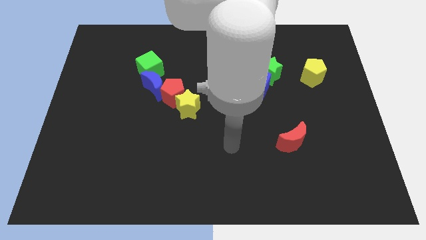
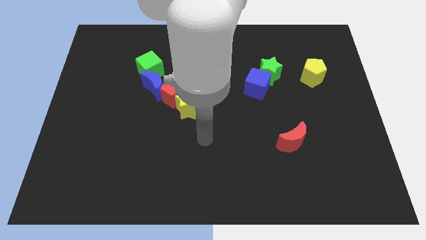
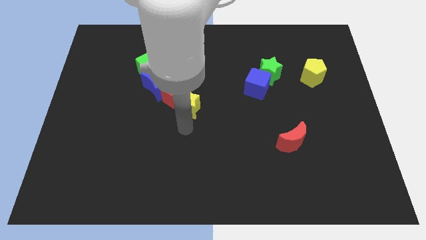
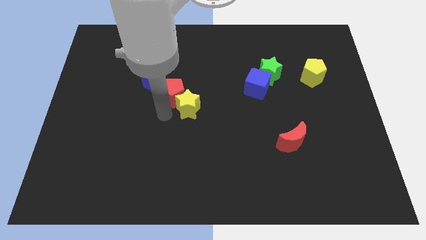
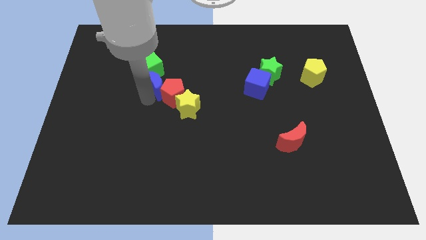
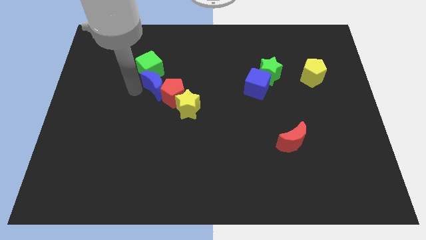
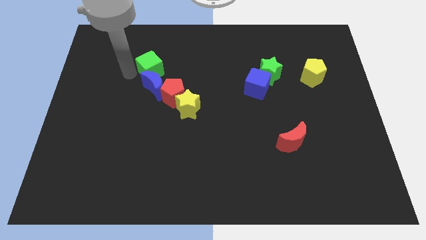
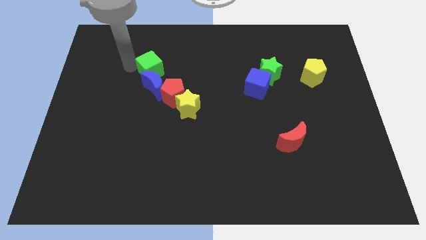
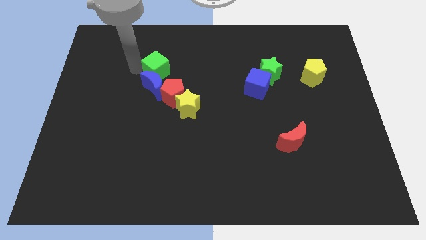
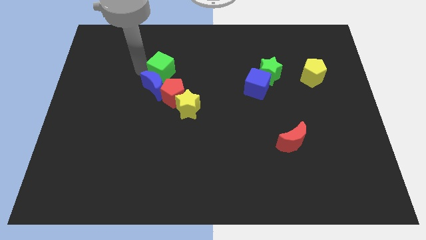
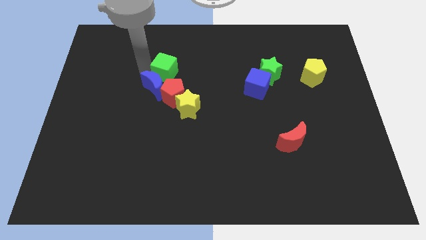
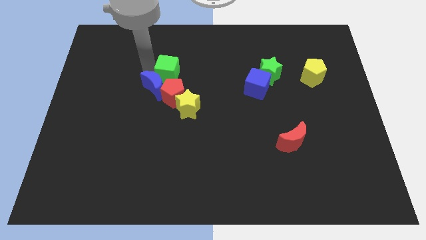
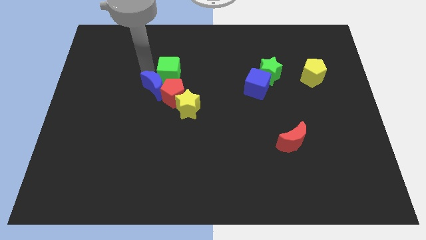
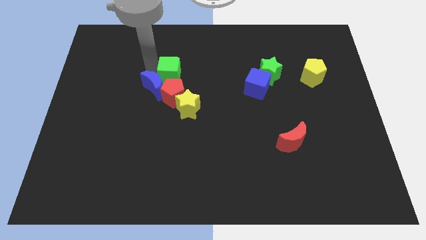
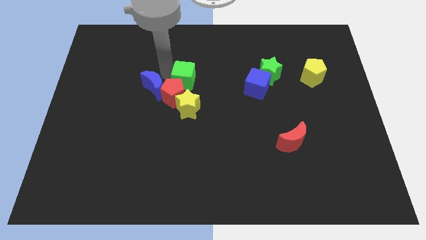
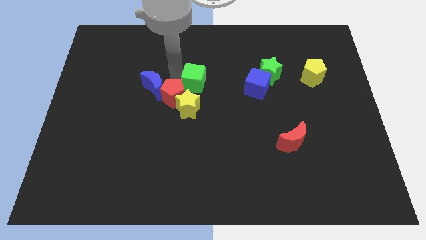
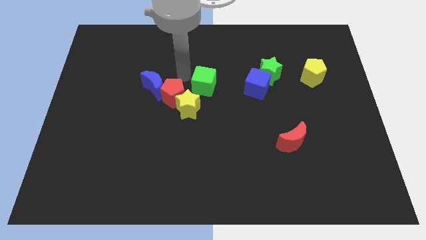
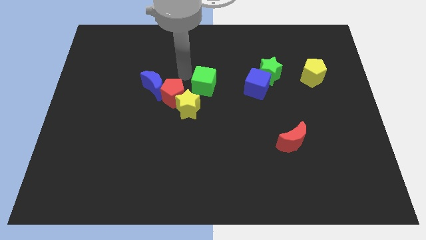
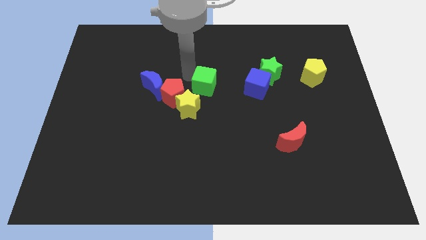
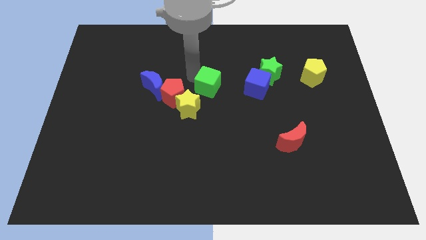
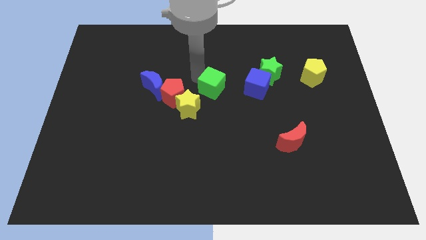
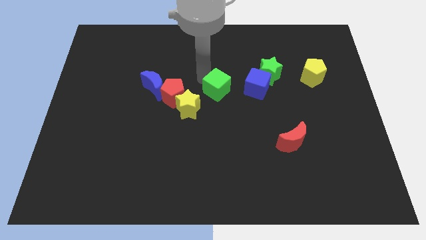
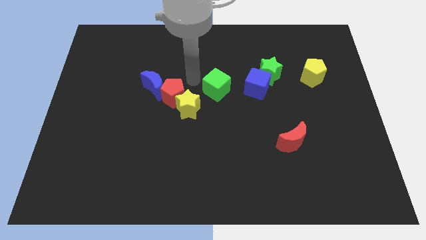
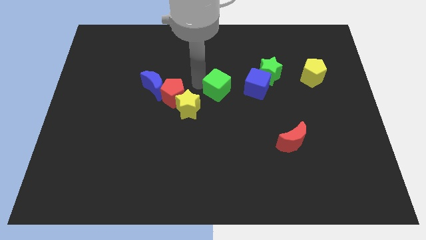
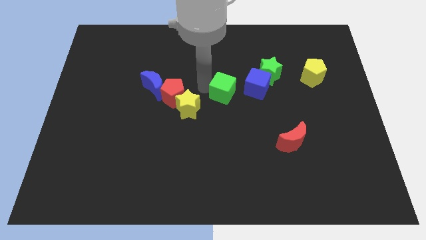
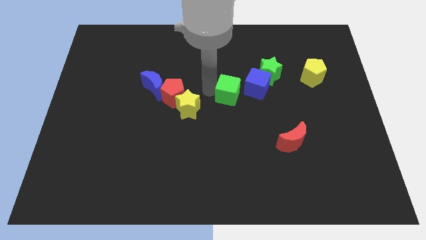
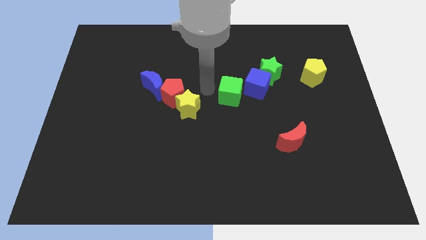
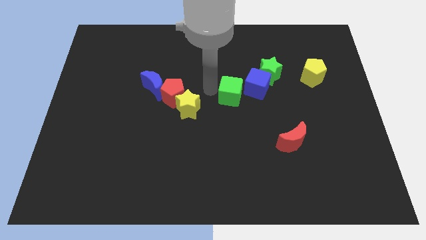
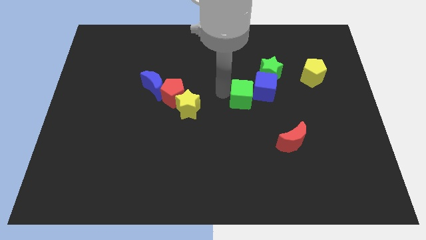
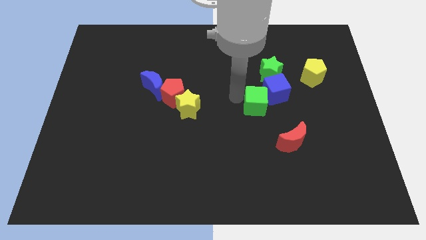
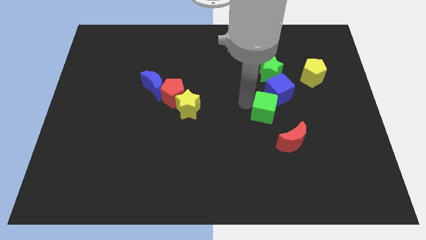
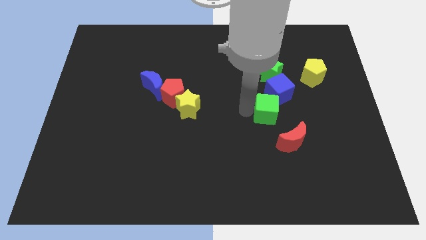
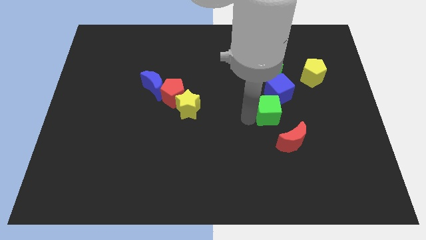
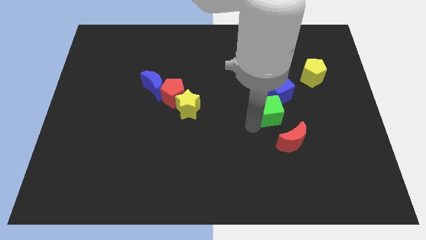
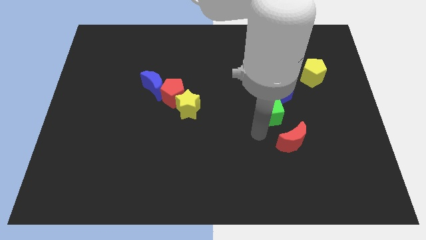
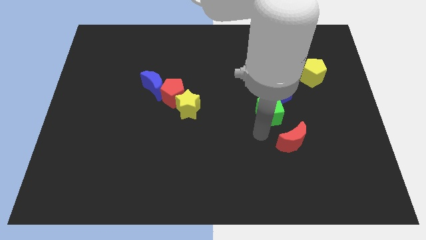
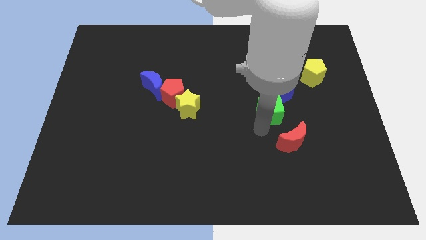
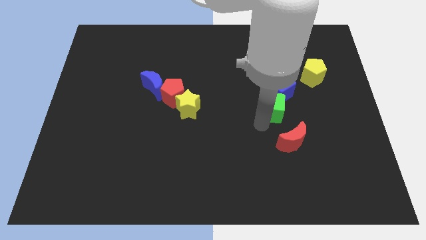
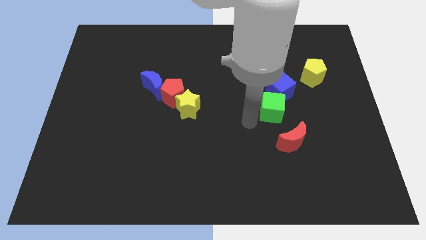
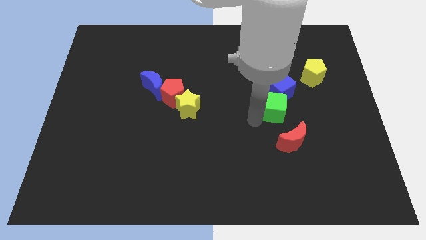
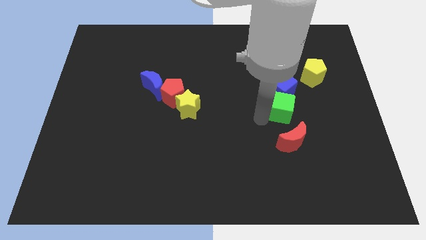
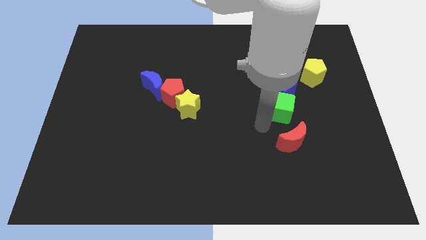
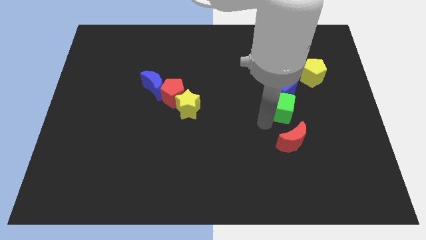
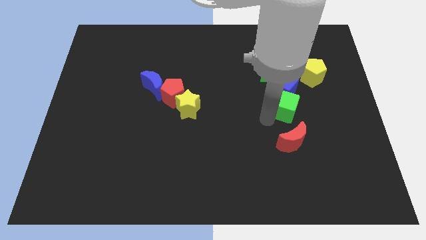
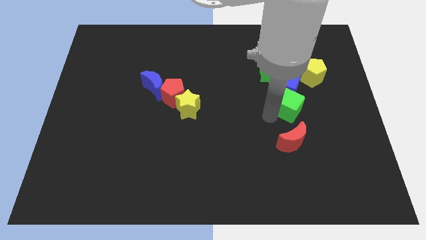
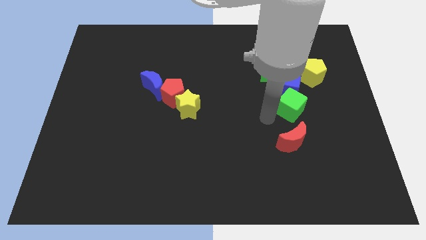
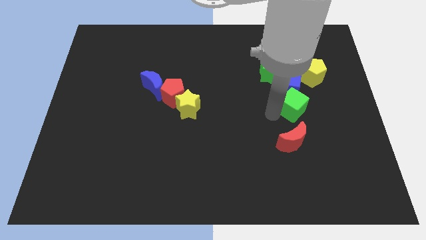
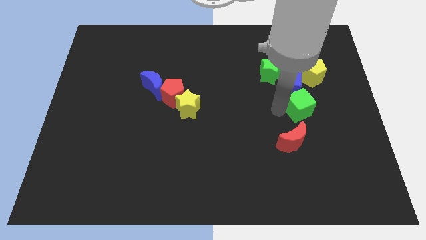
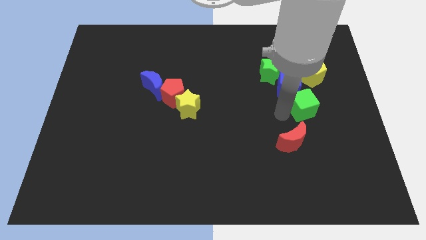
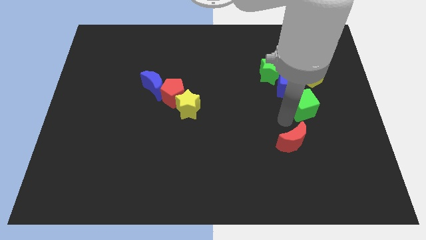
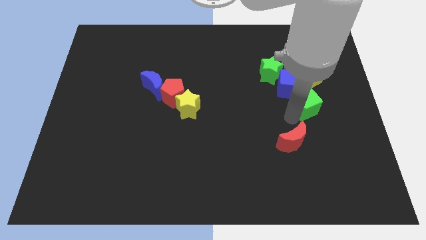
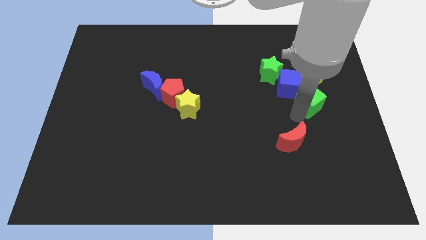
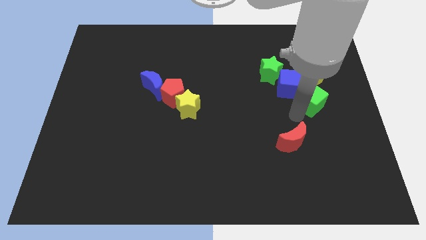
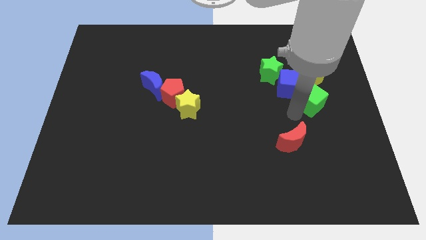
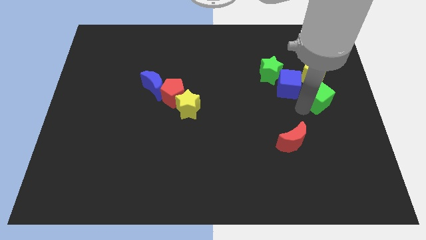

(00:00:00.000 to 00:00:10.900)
put the green cube to the right side

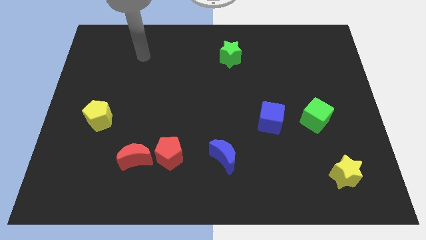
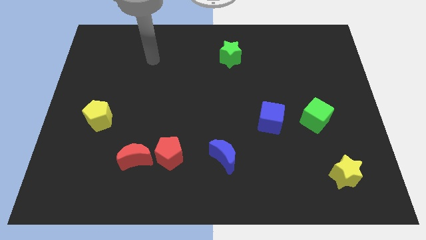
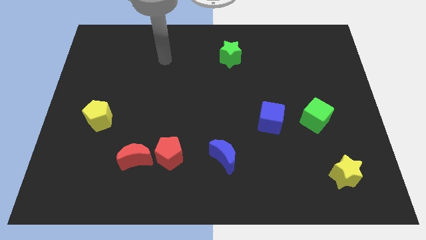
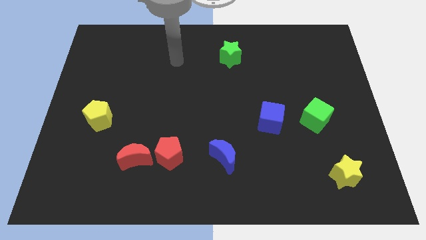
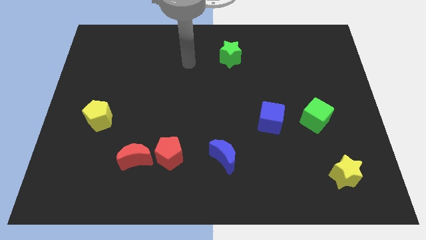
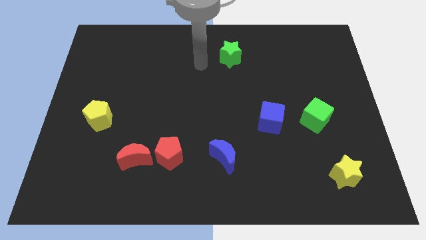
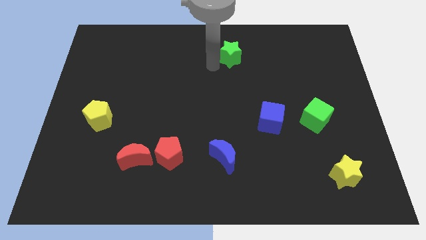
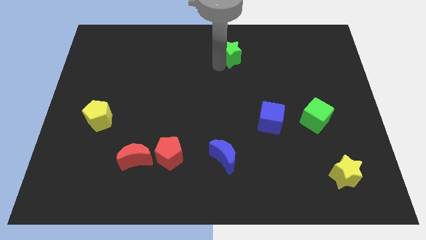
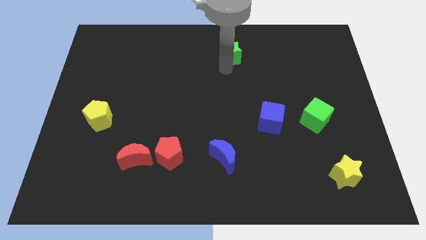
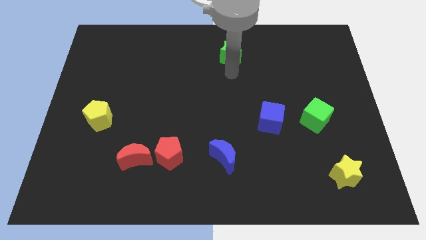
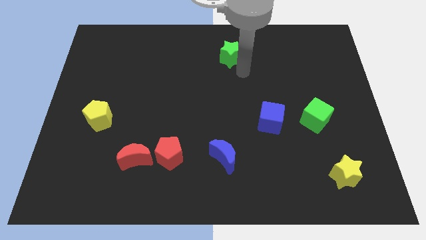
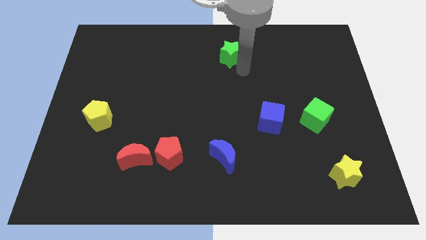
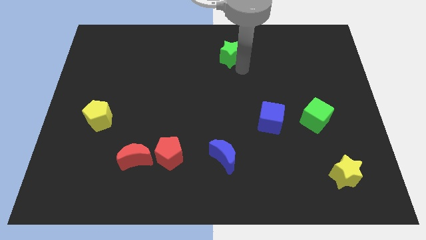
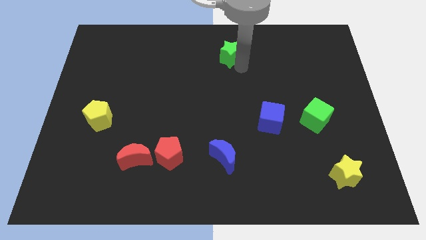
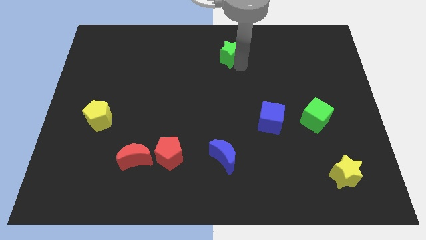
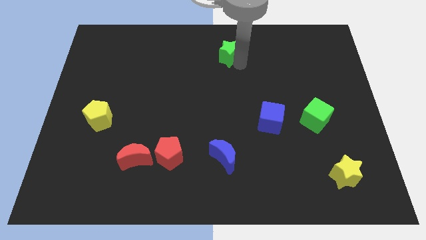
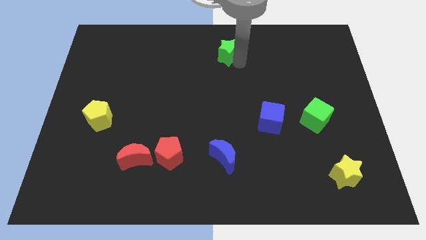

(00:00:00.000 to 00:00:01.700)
move the green star to the towards your base

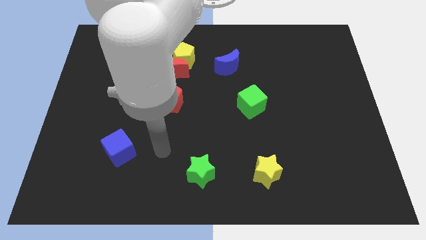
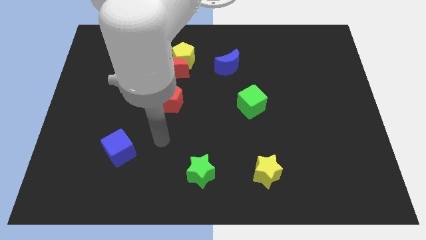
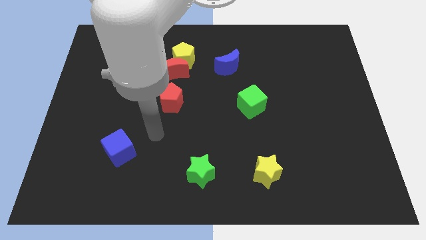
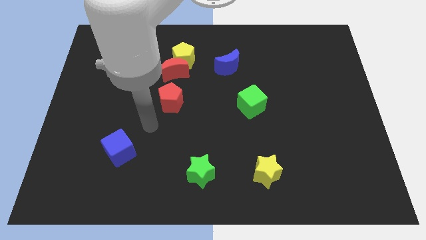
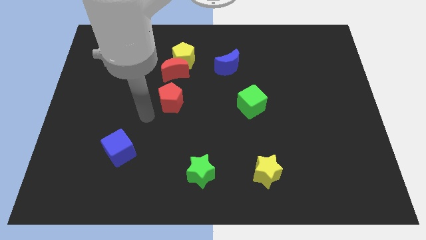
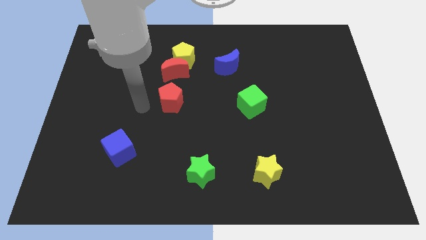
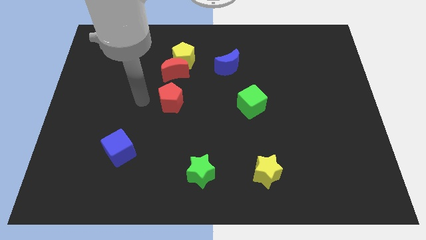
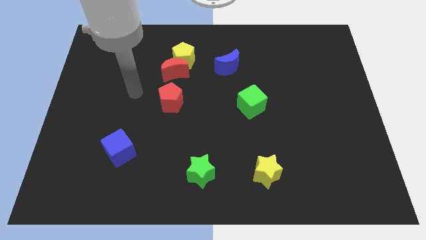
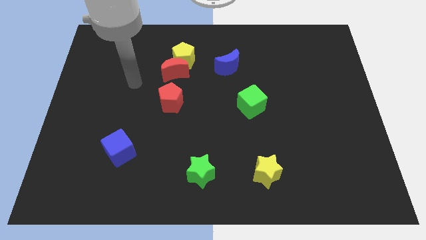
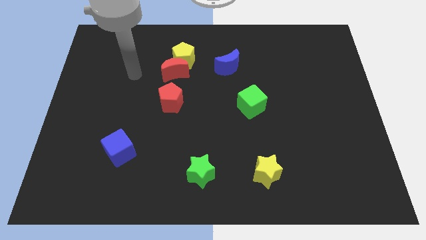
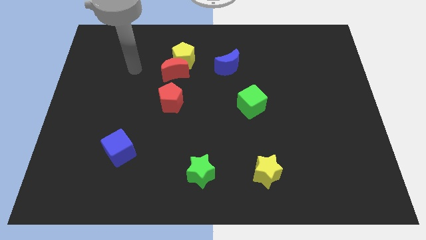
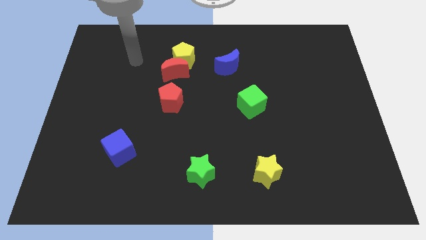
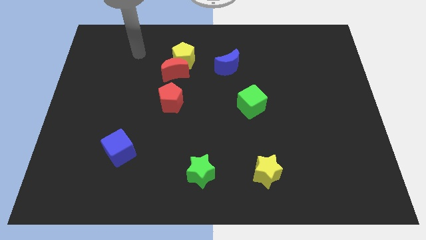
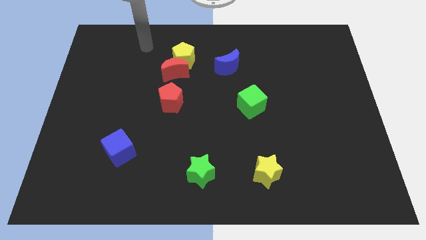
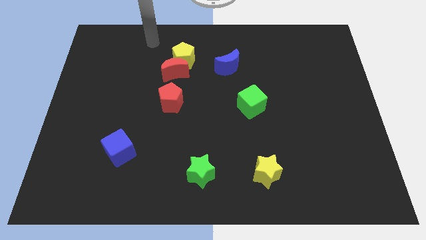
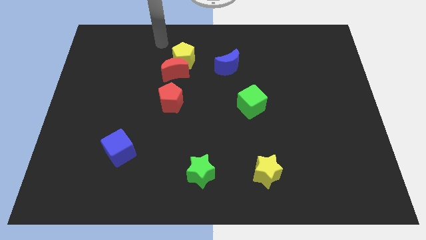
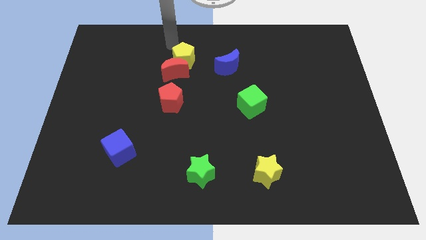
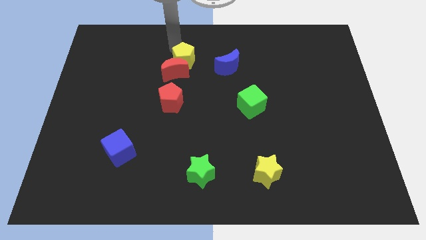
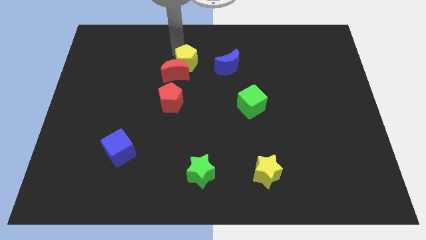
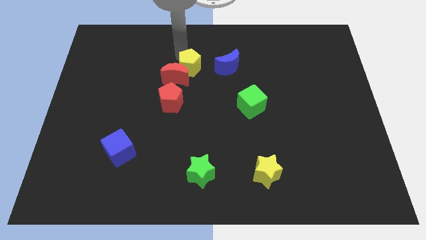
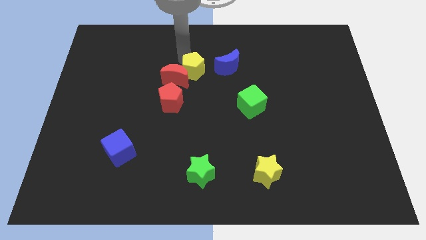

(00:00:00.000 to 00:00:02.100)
push the yellow pentagon to the center of the board
